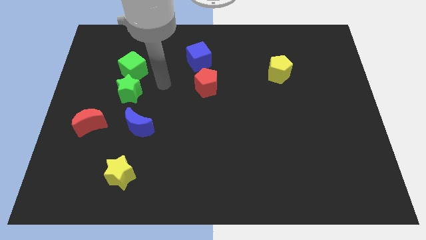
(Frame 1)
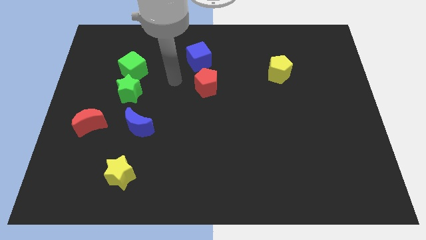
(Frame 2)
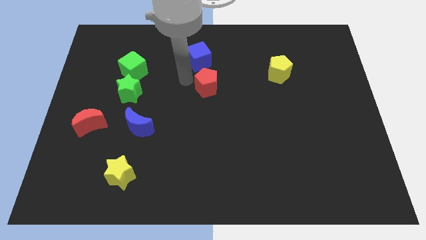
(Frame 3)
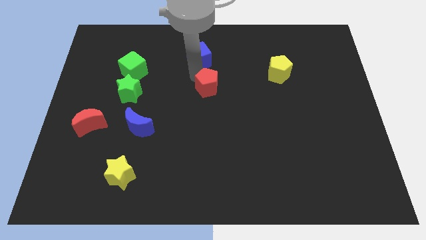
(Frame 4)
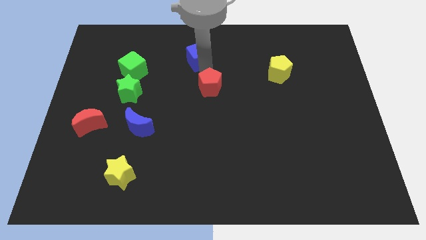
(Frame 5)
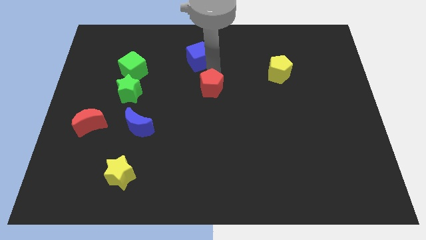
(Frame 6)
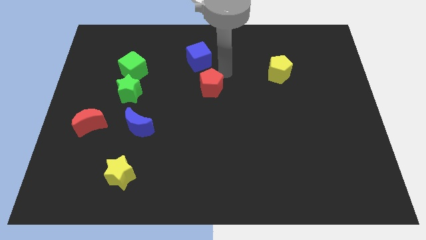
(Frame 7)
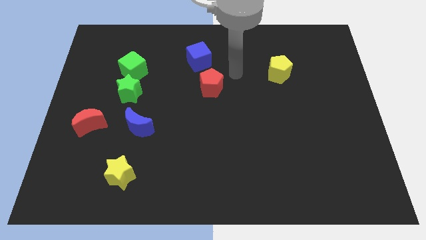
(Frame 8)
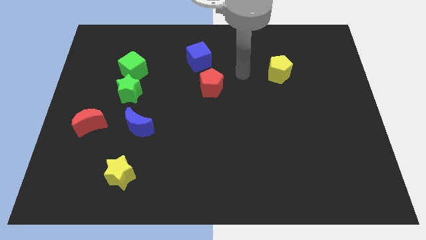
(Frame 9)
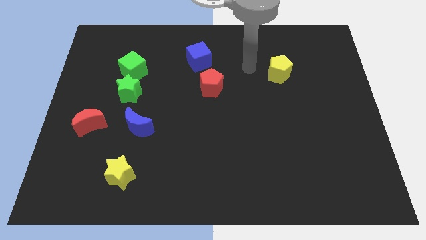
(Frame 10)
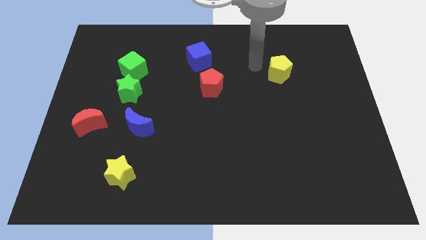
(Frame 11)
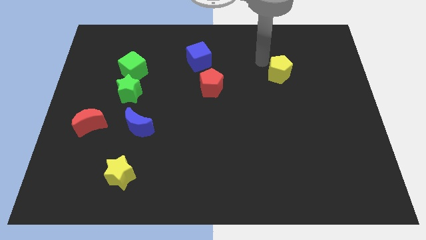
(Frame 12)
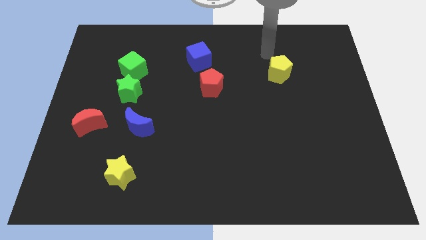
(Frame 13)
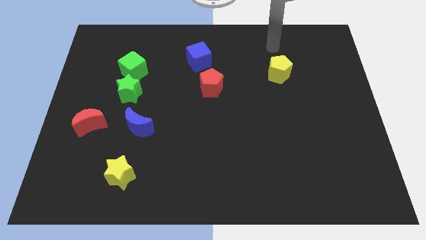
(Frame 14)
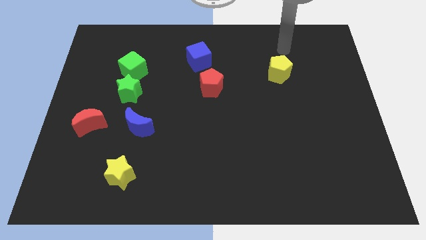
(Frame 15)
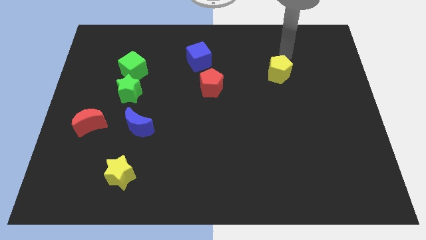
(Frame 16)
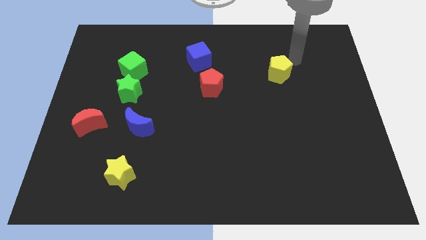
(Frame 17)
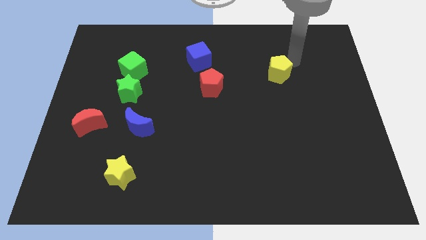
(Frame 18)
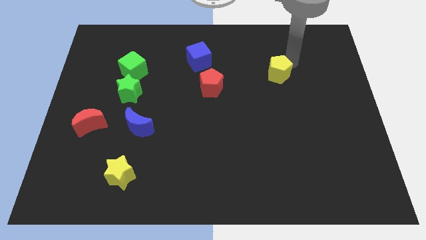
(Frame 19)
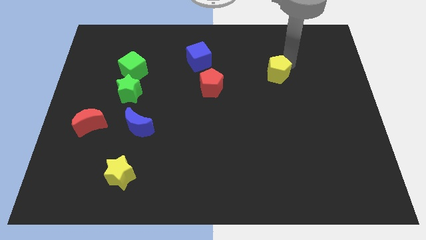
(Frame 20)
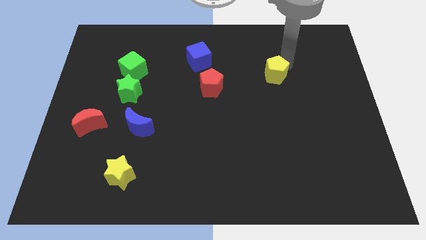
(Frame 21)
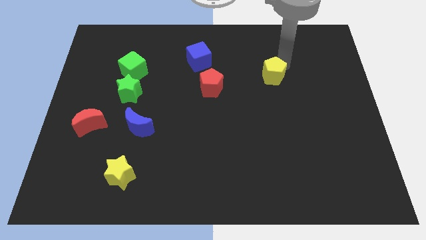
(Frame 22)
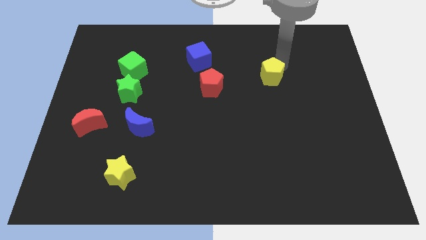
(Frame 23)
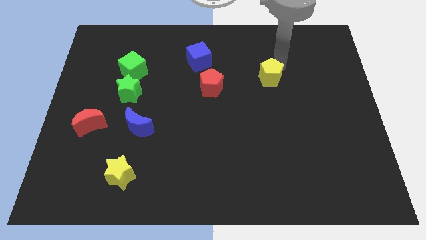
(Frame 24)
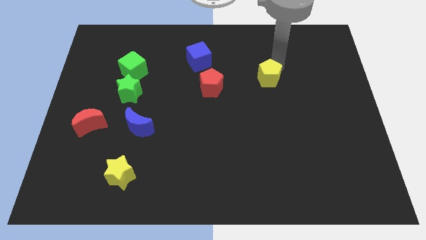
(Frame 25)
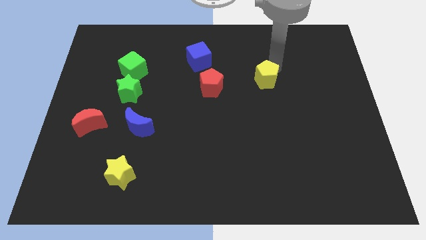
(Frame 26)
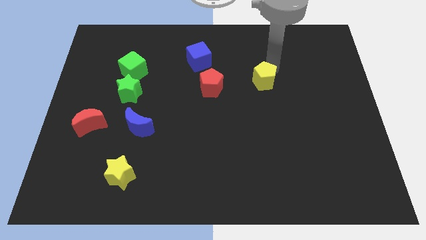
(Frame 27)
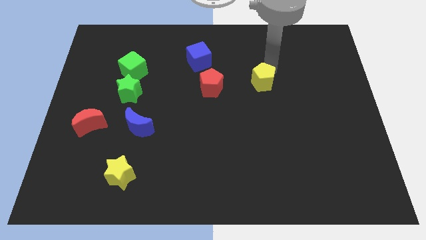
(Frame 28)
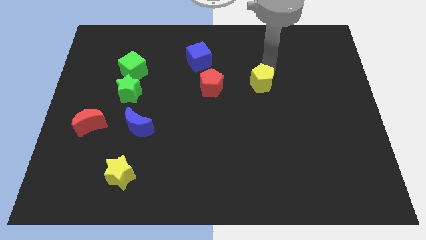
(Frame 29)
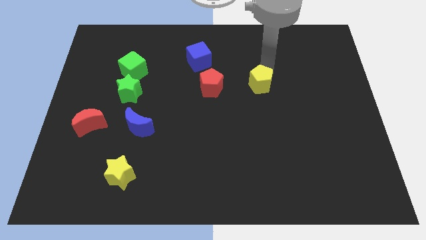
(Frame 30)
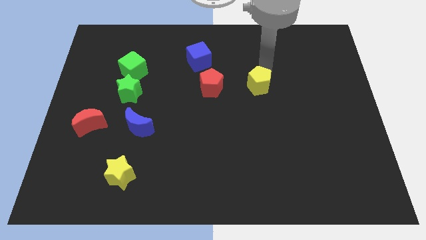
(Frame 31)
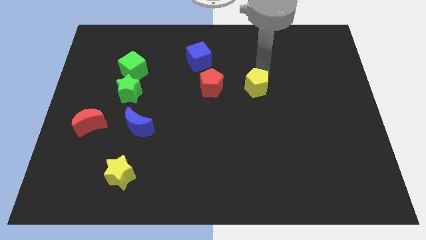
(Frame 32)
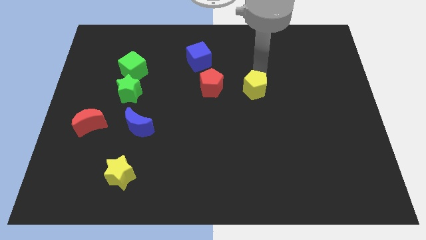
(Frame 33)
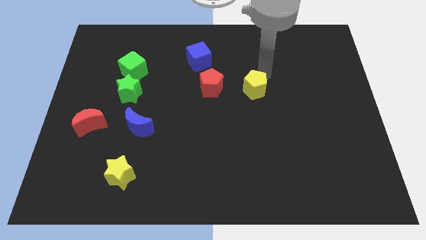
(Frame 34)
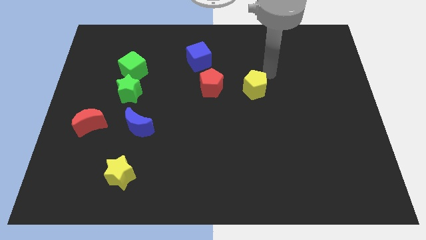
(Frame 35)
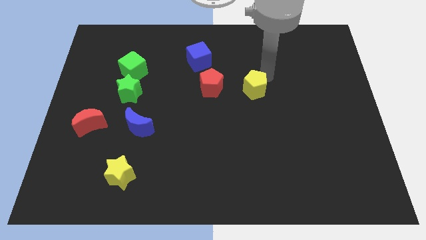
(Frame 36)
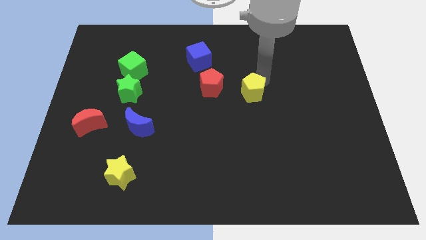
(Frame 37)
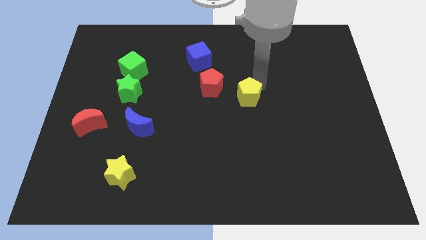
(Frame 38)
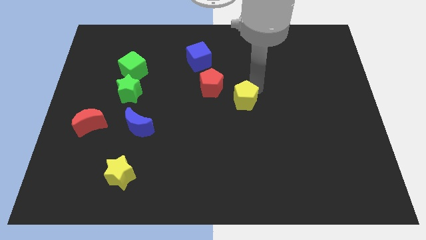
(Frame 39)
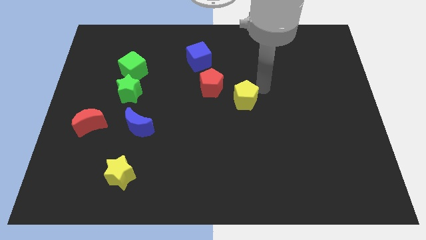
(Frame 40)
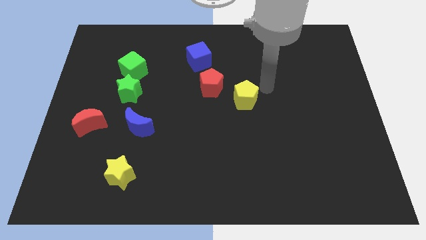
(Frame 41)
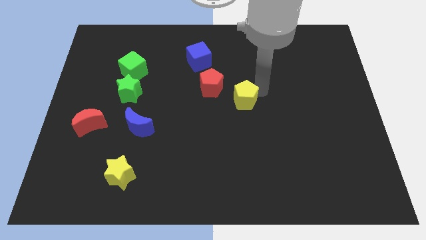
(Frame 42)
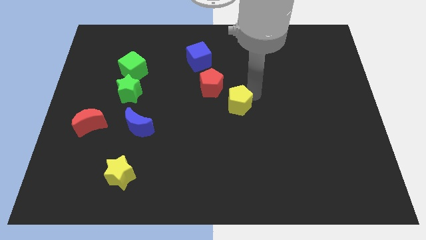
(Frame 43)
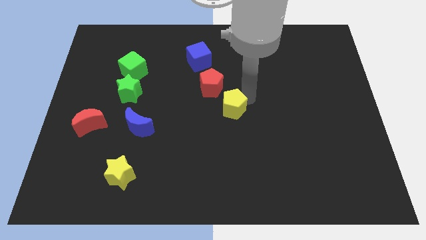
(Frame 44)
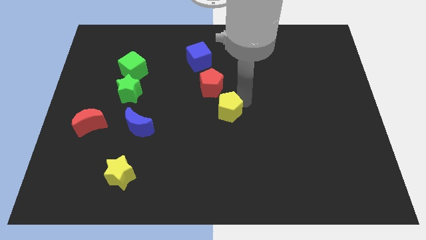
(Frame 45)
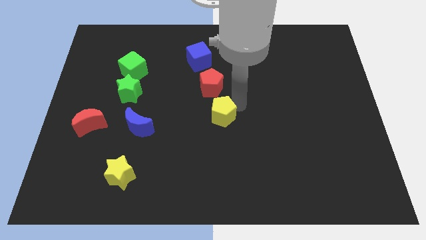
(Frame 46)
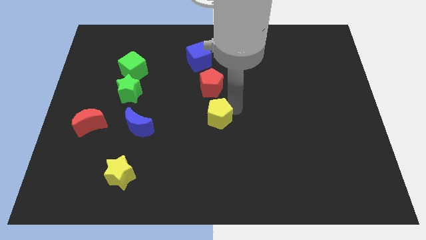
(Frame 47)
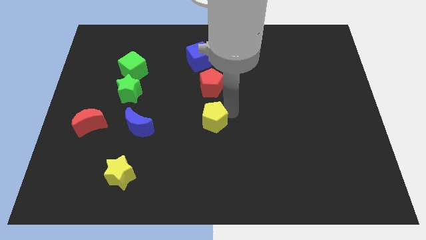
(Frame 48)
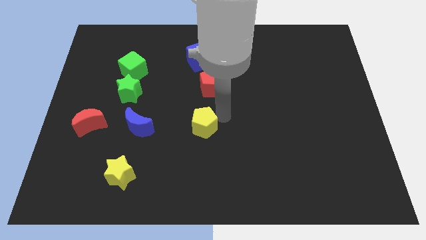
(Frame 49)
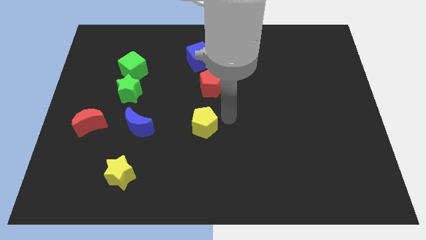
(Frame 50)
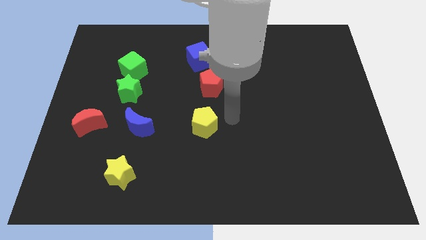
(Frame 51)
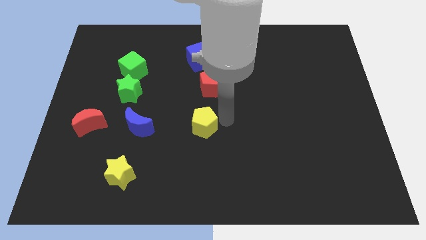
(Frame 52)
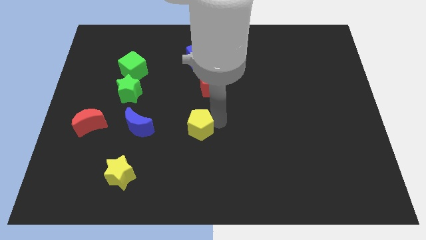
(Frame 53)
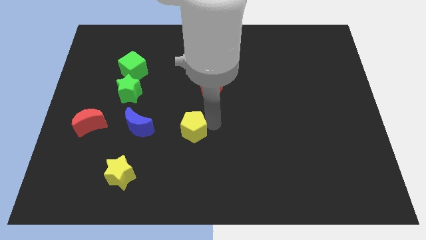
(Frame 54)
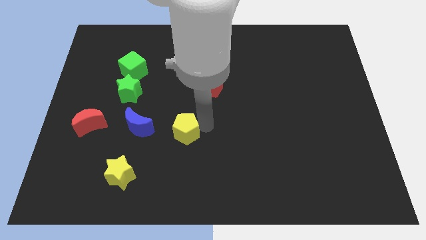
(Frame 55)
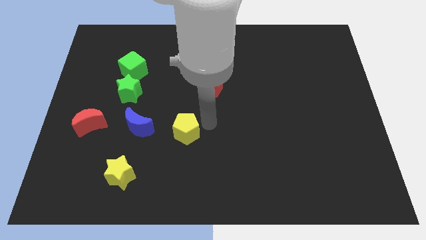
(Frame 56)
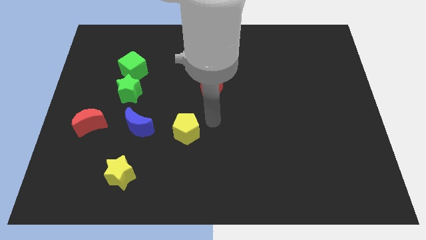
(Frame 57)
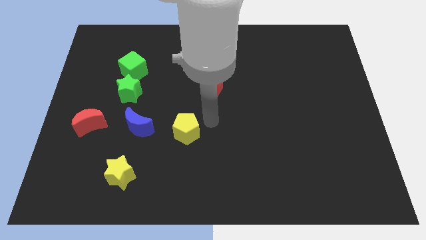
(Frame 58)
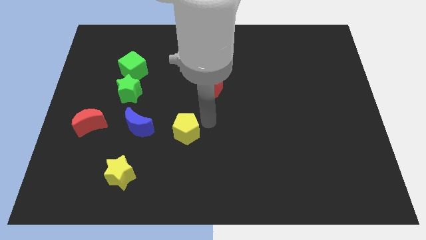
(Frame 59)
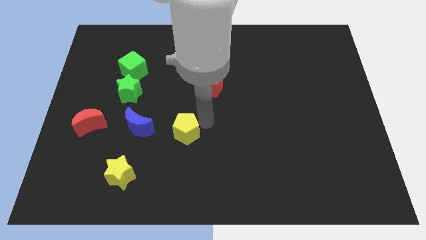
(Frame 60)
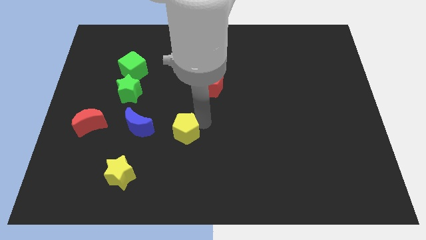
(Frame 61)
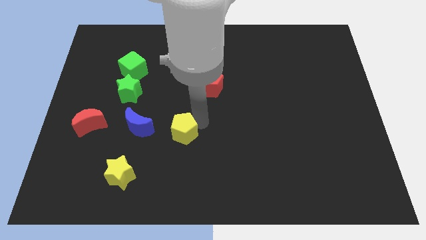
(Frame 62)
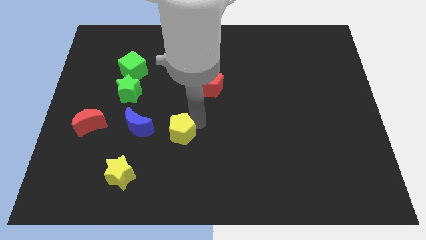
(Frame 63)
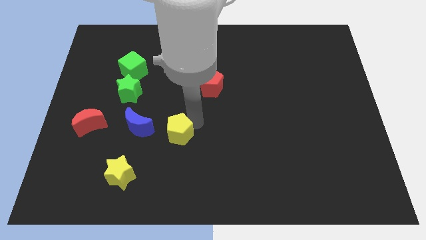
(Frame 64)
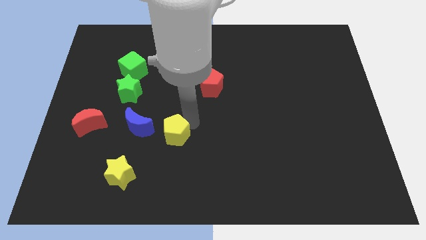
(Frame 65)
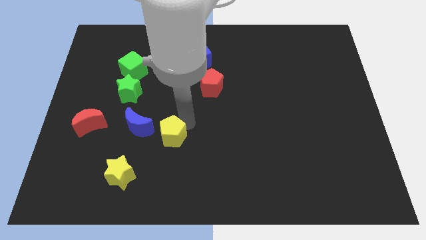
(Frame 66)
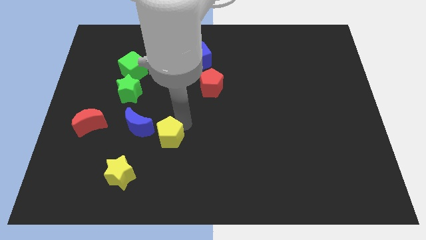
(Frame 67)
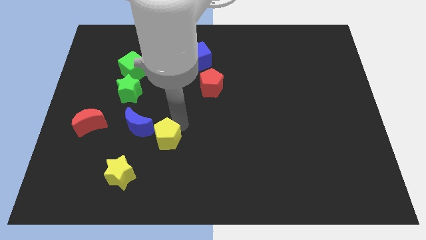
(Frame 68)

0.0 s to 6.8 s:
push the yellow pentagon to the top right of the yellow star
